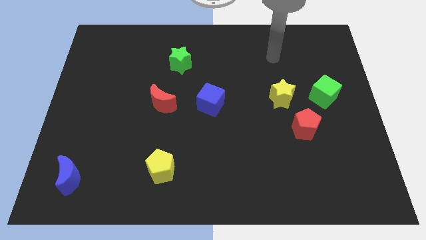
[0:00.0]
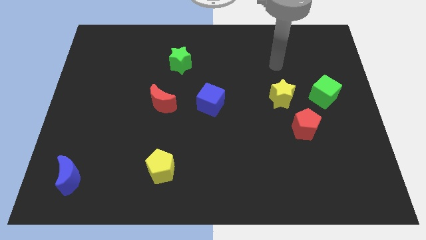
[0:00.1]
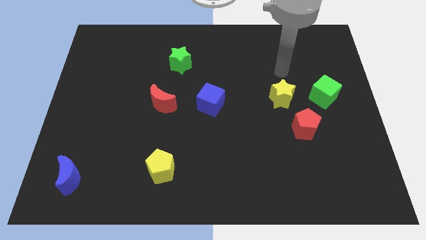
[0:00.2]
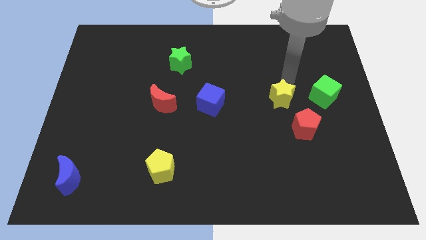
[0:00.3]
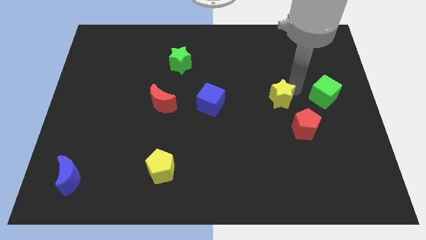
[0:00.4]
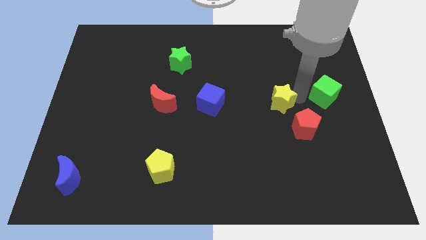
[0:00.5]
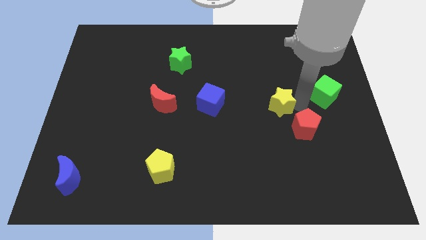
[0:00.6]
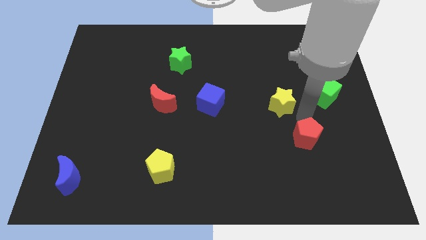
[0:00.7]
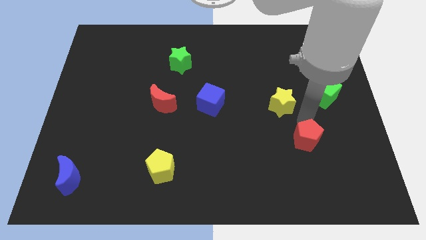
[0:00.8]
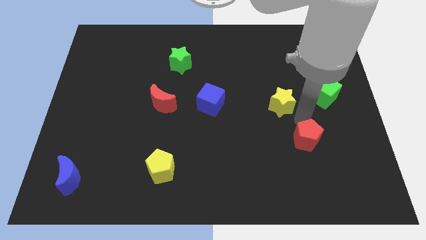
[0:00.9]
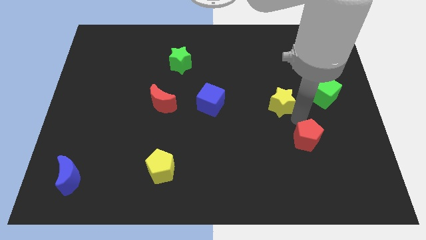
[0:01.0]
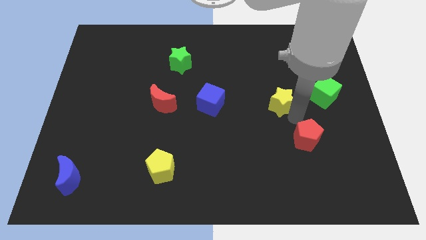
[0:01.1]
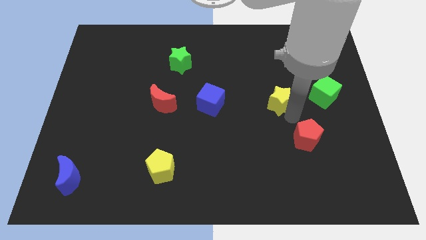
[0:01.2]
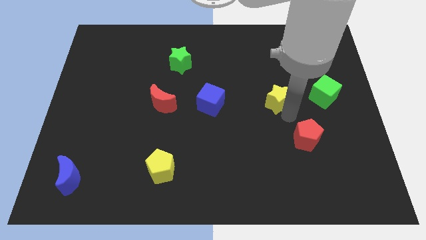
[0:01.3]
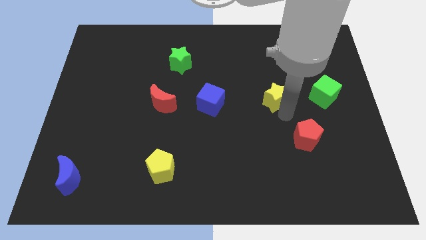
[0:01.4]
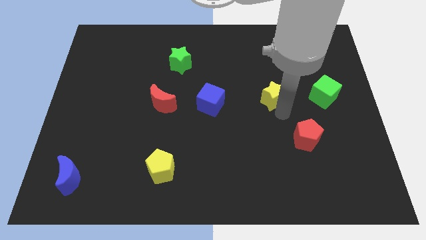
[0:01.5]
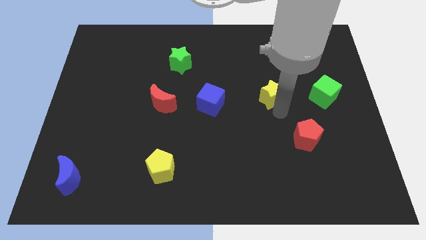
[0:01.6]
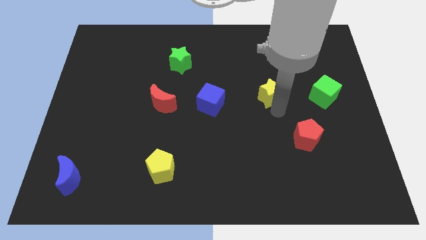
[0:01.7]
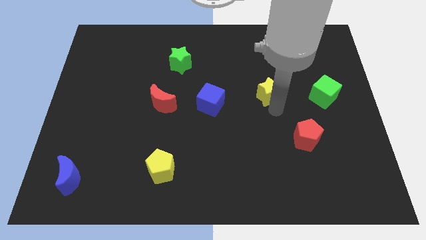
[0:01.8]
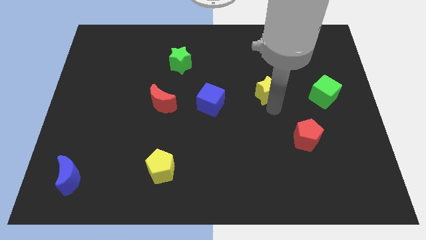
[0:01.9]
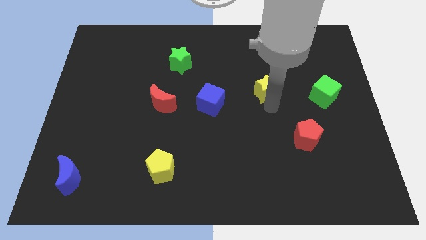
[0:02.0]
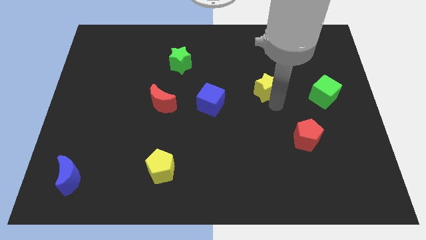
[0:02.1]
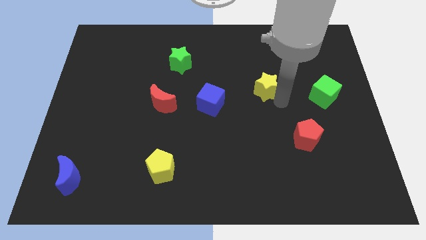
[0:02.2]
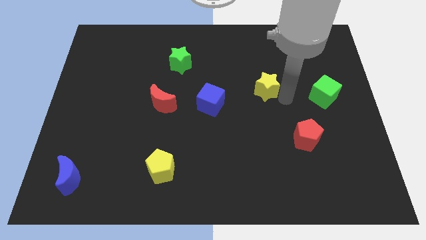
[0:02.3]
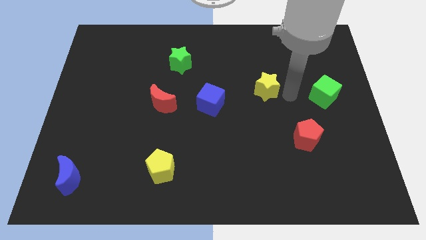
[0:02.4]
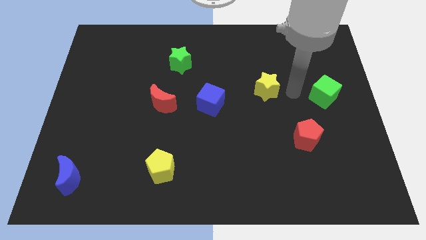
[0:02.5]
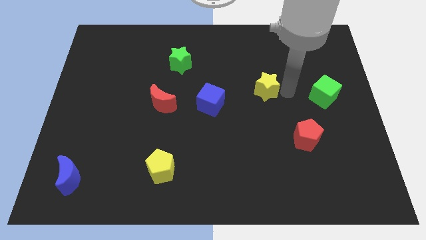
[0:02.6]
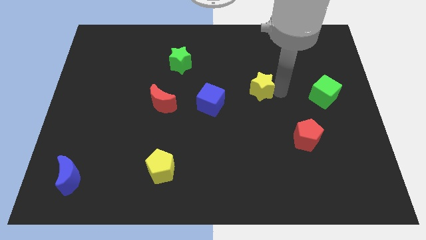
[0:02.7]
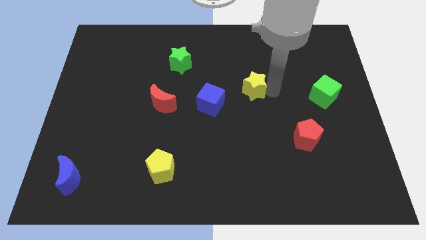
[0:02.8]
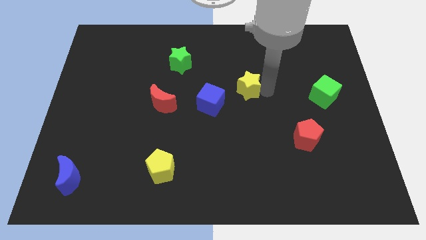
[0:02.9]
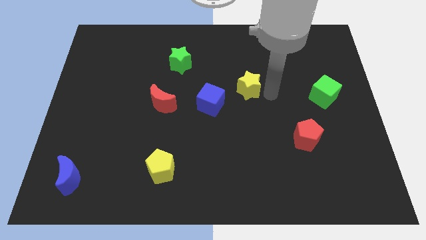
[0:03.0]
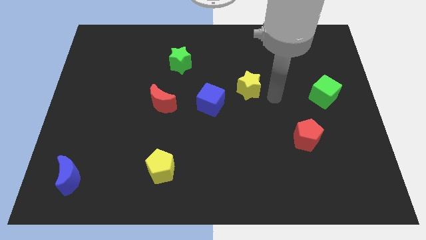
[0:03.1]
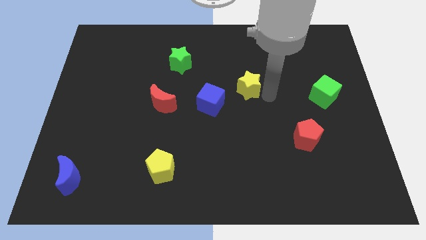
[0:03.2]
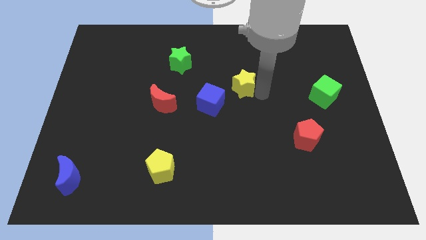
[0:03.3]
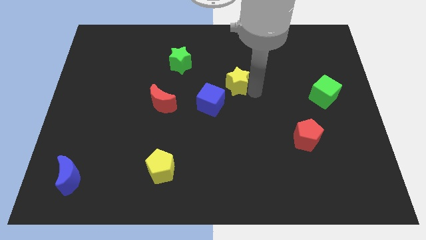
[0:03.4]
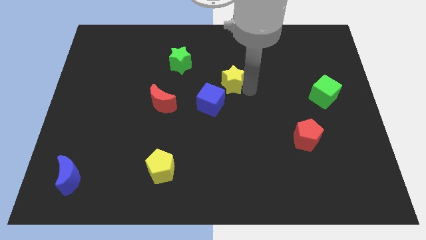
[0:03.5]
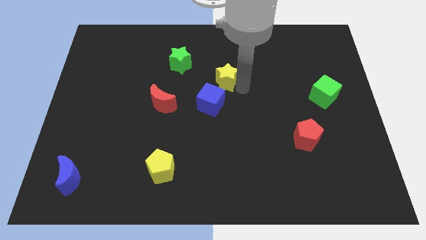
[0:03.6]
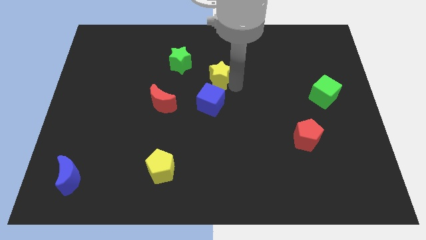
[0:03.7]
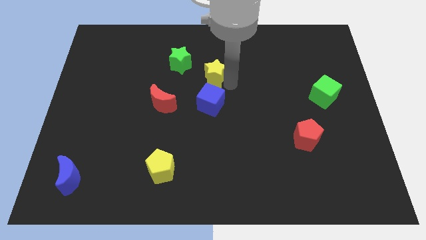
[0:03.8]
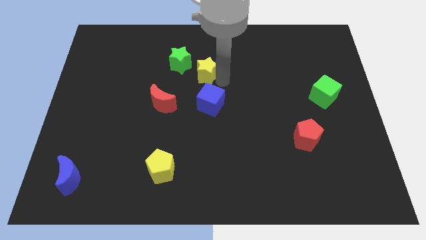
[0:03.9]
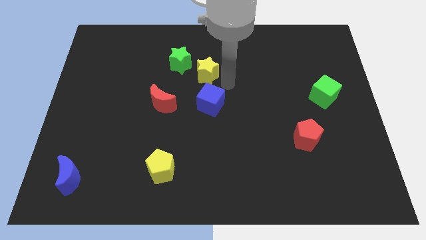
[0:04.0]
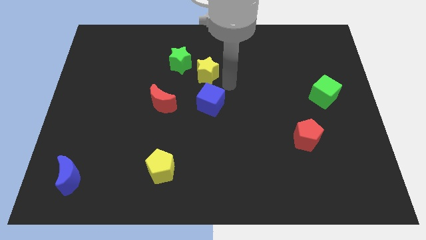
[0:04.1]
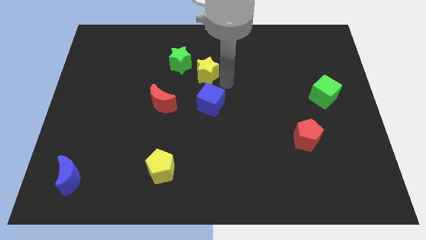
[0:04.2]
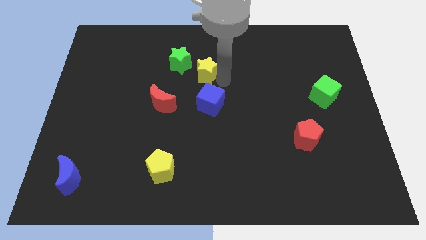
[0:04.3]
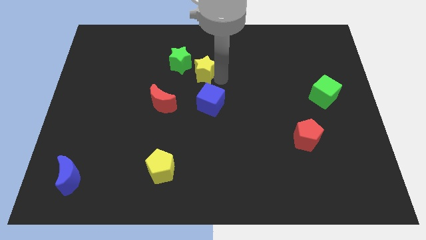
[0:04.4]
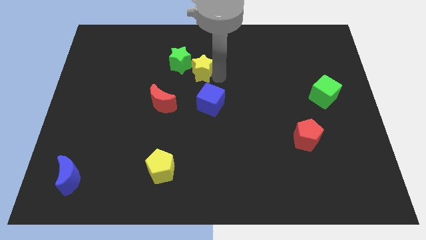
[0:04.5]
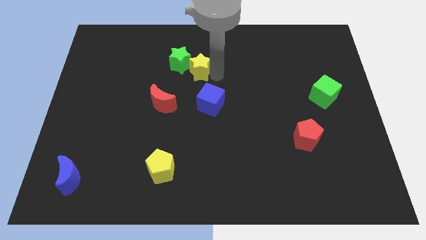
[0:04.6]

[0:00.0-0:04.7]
slide the yellow star close to the green star

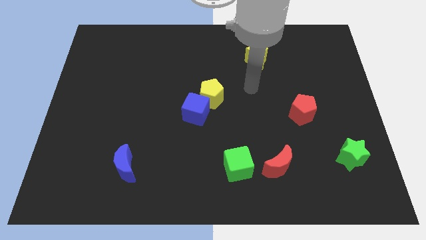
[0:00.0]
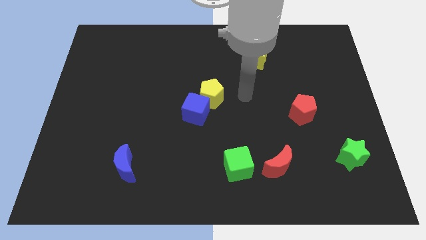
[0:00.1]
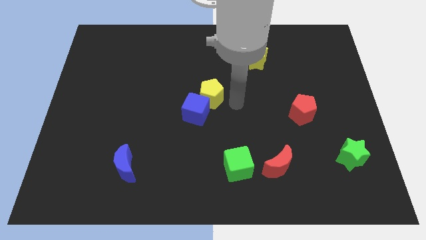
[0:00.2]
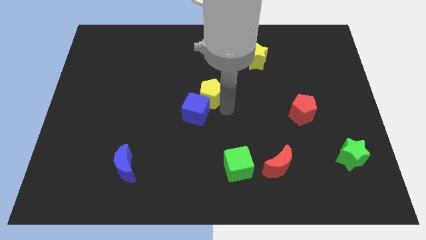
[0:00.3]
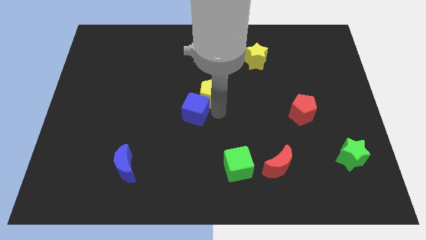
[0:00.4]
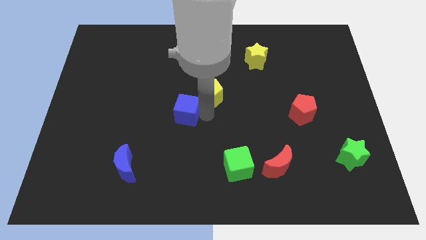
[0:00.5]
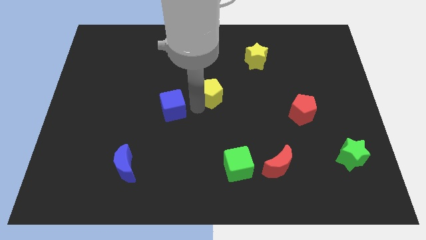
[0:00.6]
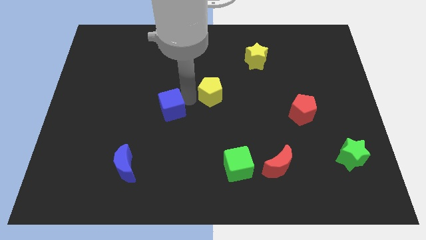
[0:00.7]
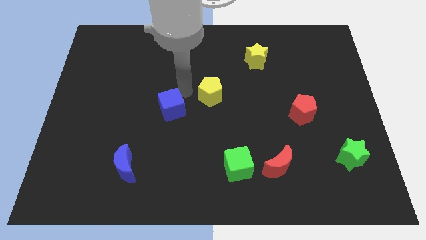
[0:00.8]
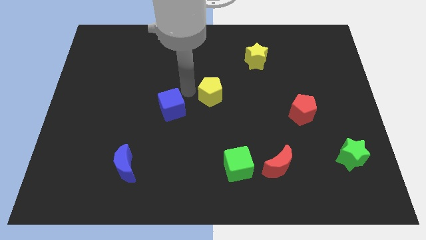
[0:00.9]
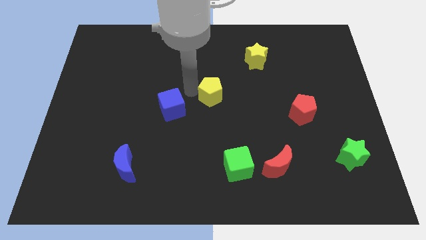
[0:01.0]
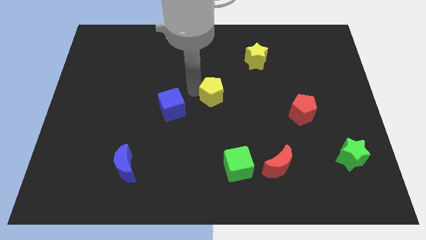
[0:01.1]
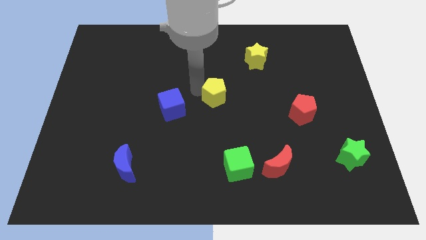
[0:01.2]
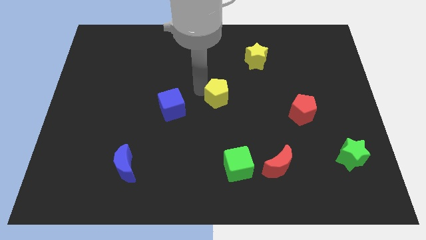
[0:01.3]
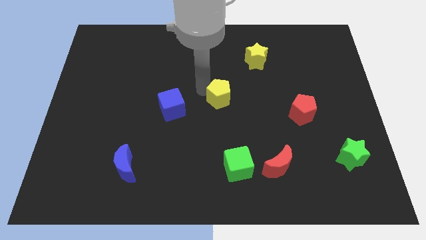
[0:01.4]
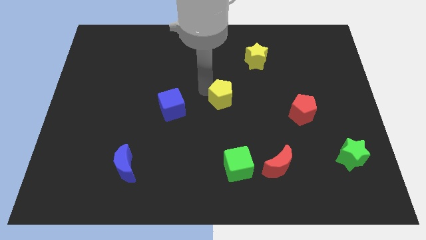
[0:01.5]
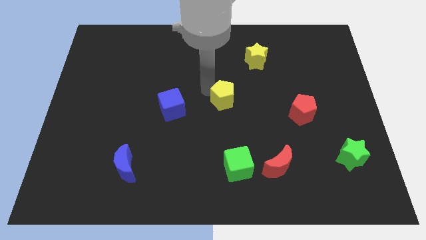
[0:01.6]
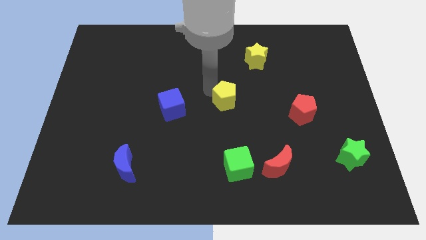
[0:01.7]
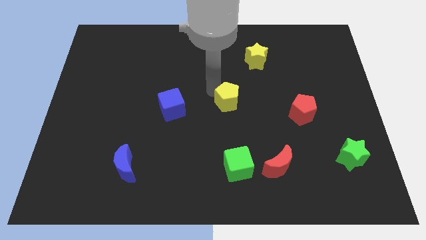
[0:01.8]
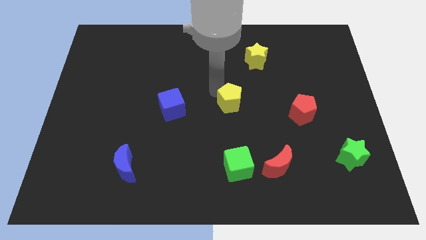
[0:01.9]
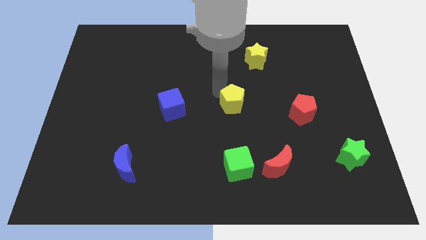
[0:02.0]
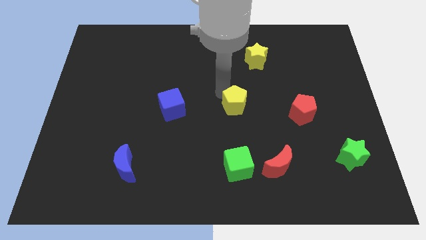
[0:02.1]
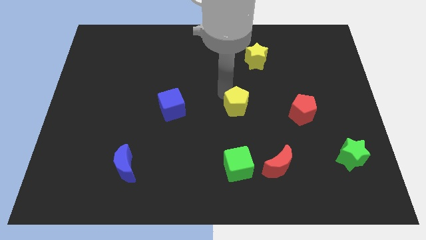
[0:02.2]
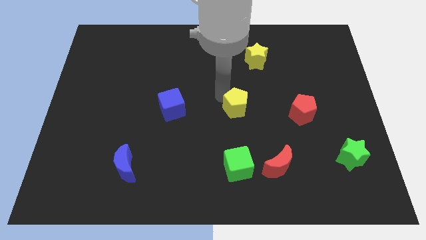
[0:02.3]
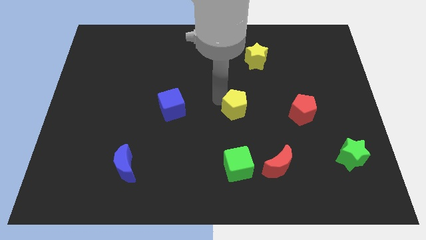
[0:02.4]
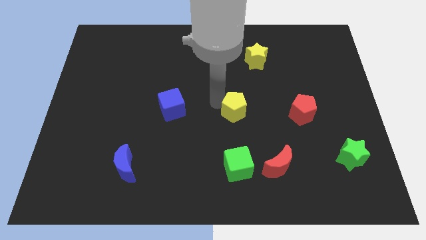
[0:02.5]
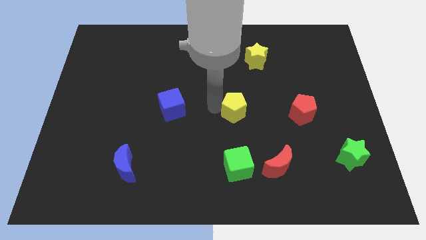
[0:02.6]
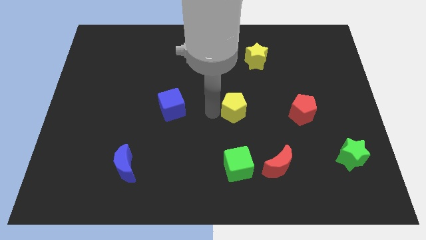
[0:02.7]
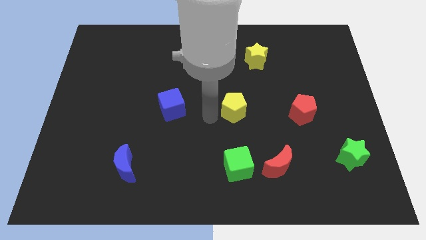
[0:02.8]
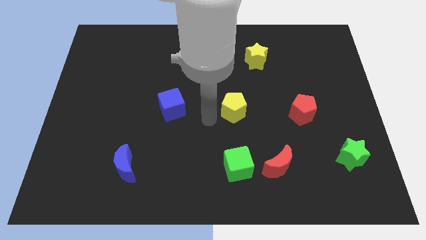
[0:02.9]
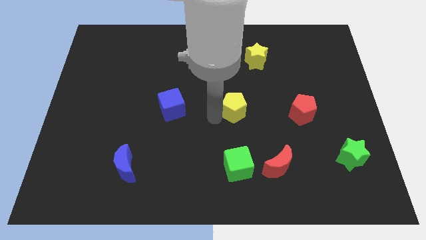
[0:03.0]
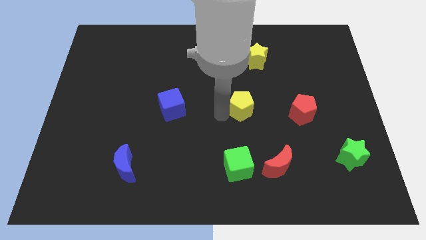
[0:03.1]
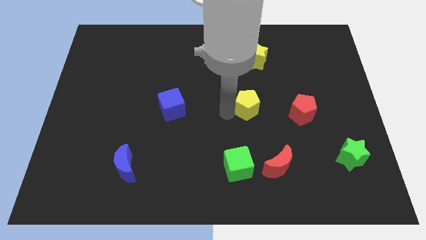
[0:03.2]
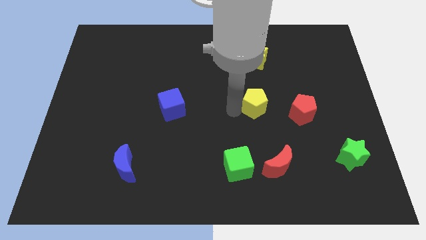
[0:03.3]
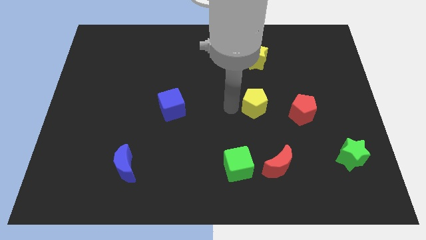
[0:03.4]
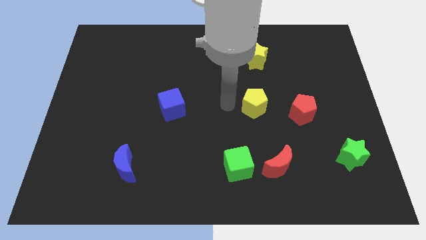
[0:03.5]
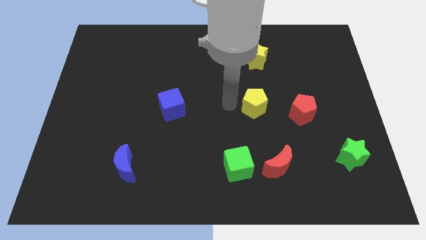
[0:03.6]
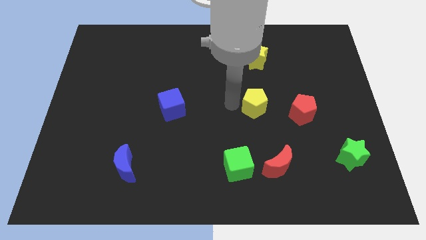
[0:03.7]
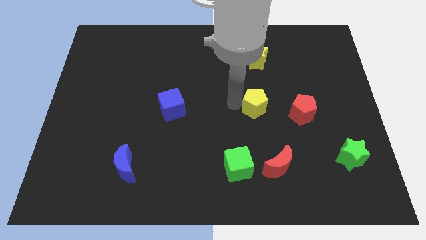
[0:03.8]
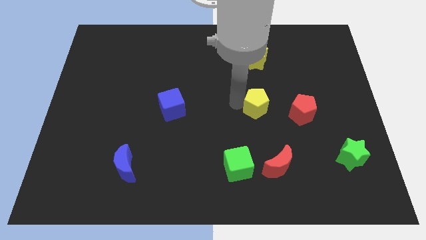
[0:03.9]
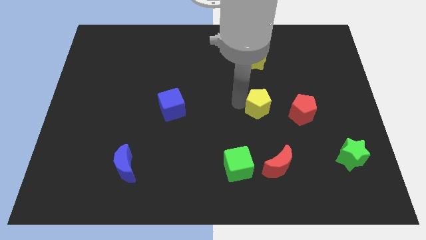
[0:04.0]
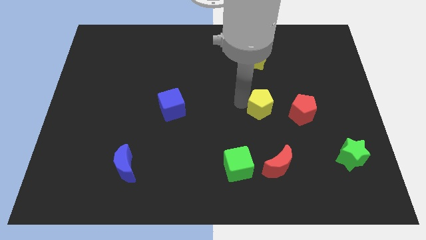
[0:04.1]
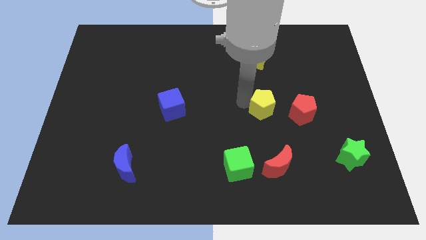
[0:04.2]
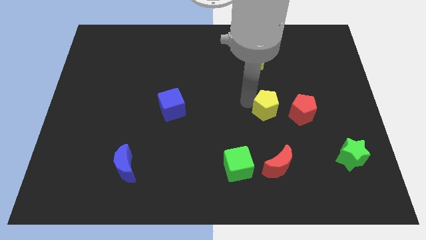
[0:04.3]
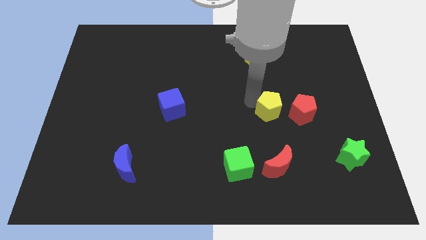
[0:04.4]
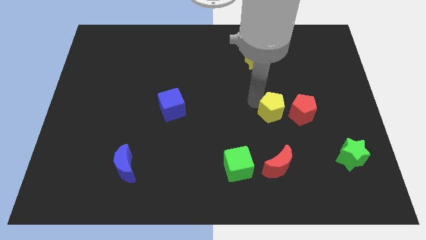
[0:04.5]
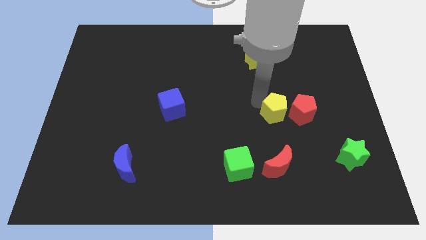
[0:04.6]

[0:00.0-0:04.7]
push the yellow pentagon next to the red pentagon
